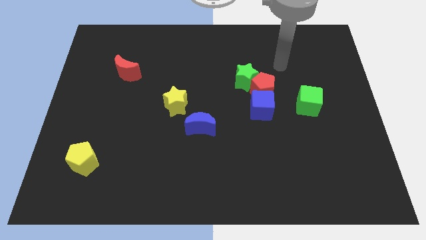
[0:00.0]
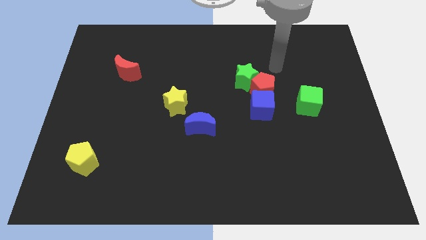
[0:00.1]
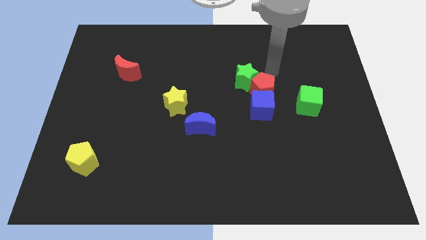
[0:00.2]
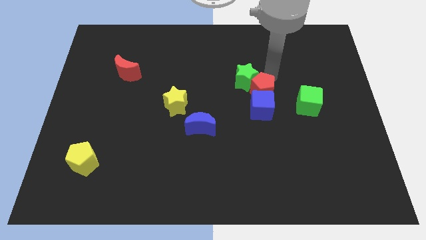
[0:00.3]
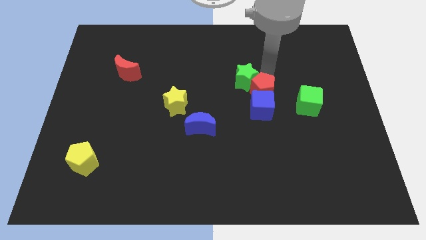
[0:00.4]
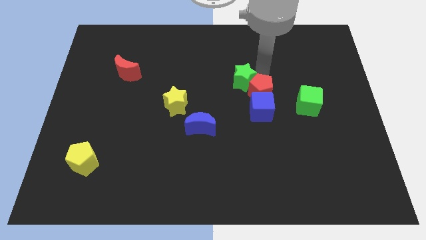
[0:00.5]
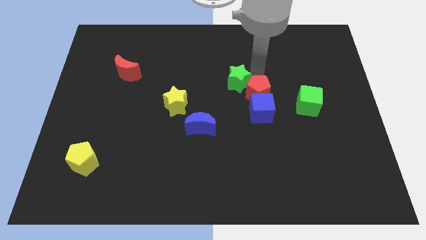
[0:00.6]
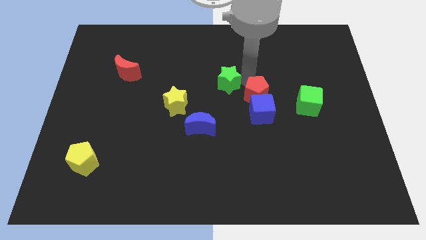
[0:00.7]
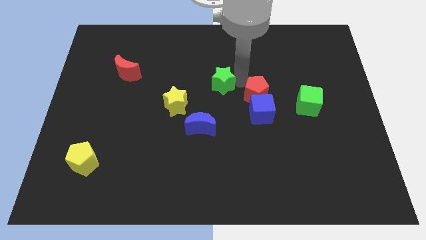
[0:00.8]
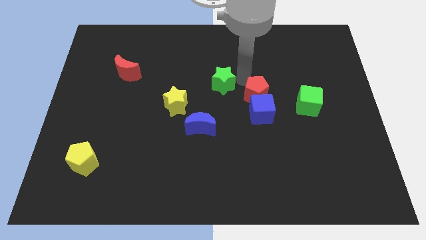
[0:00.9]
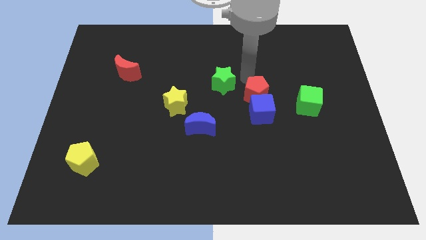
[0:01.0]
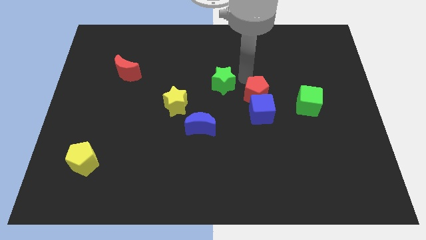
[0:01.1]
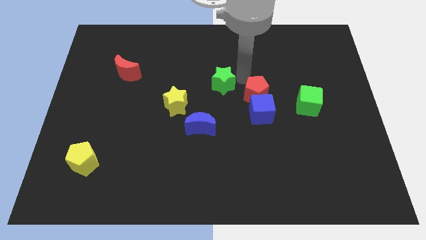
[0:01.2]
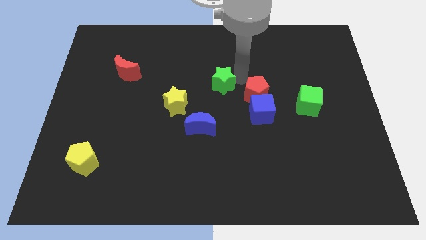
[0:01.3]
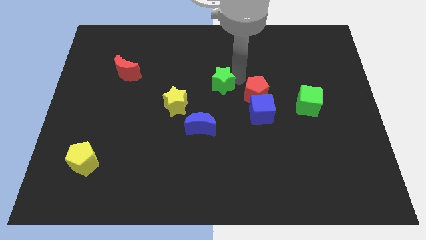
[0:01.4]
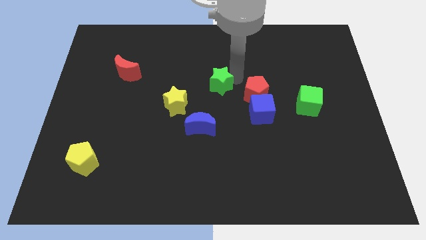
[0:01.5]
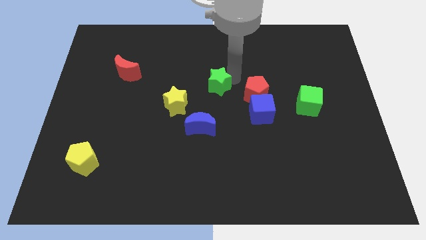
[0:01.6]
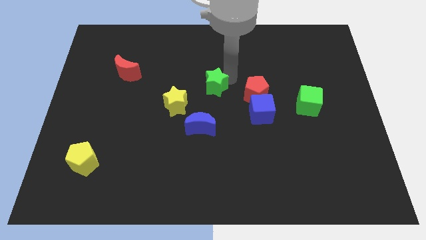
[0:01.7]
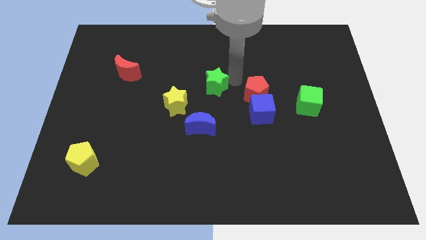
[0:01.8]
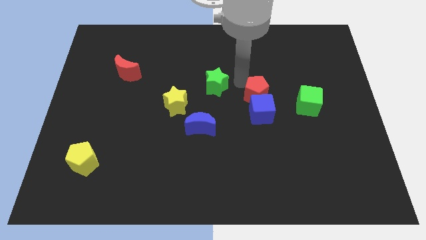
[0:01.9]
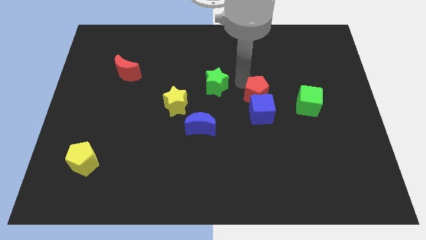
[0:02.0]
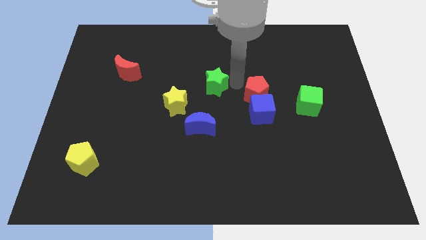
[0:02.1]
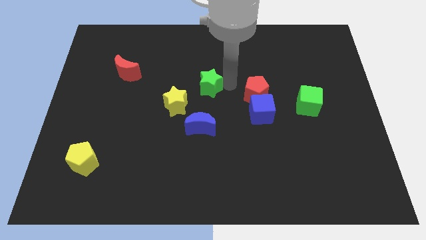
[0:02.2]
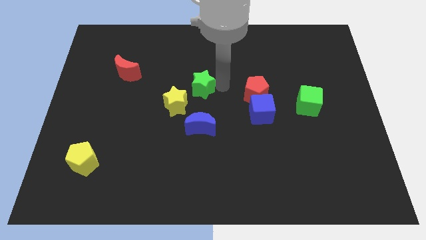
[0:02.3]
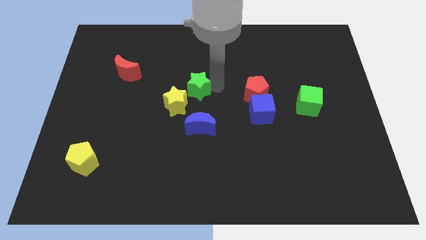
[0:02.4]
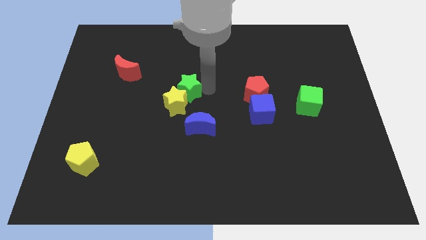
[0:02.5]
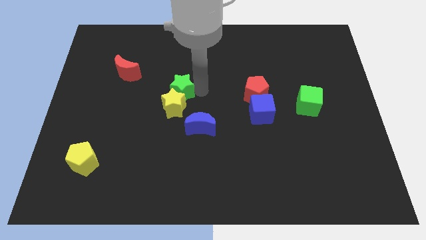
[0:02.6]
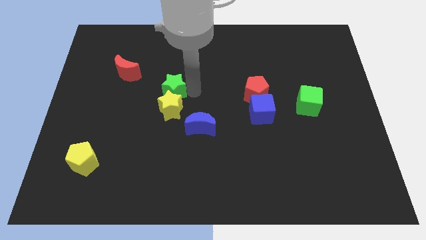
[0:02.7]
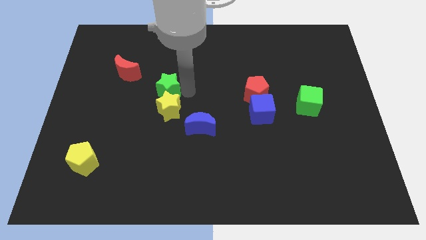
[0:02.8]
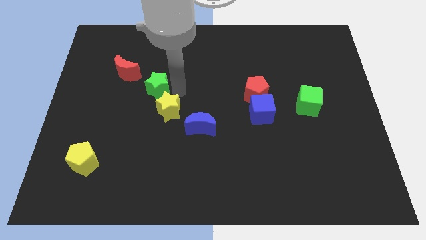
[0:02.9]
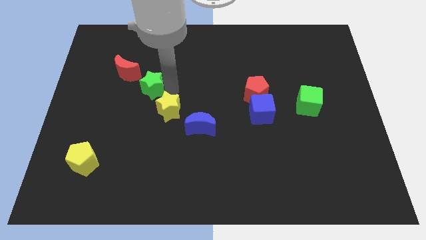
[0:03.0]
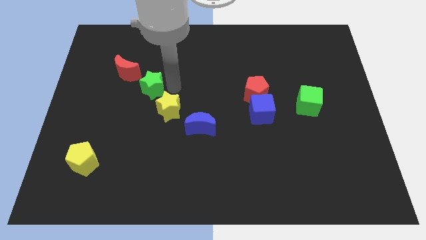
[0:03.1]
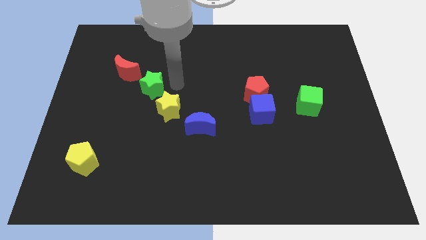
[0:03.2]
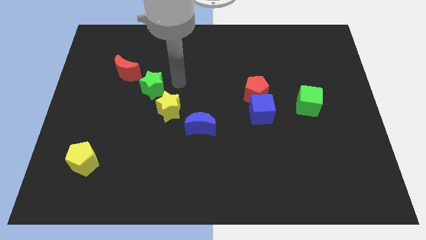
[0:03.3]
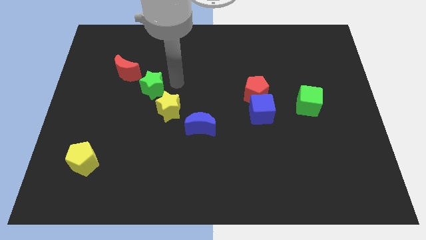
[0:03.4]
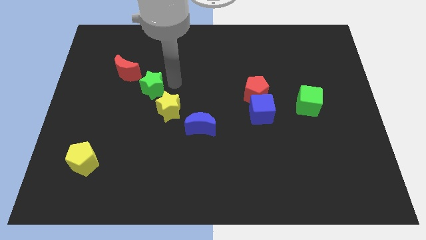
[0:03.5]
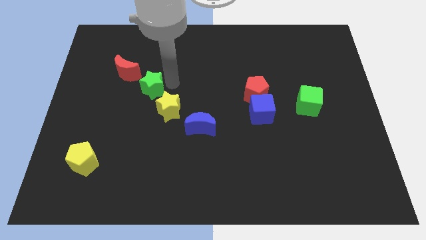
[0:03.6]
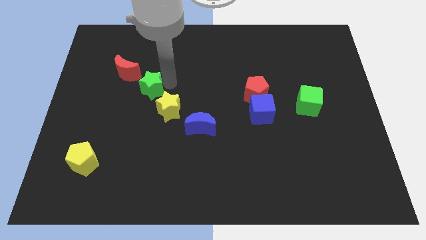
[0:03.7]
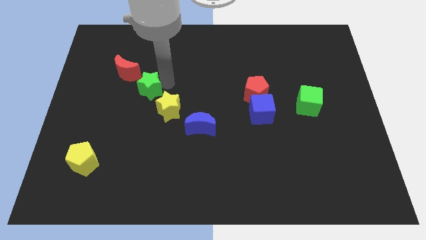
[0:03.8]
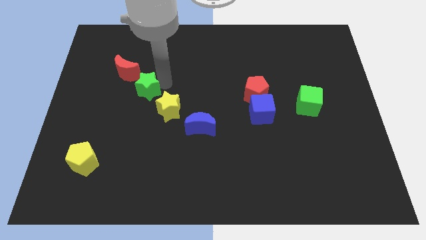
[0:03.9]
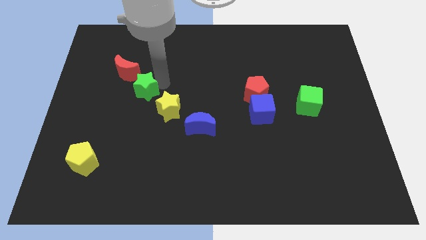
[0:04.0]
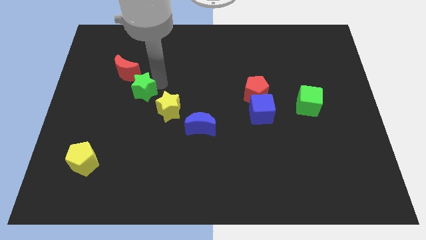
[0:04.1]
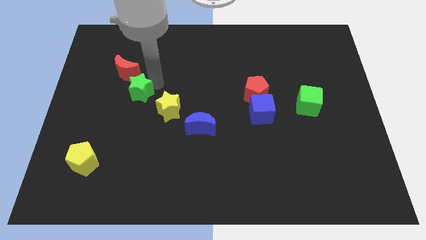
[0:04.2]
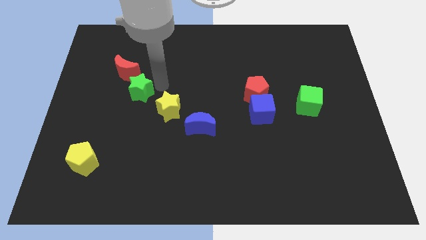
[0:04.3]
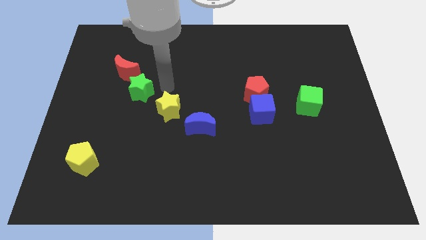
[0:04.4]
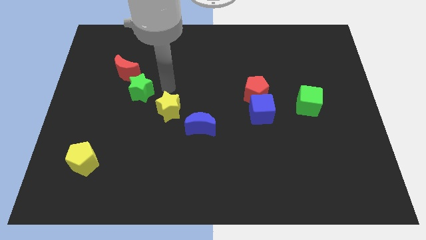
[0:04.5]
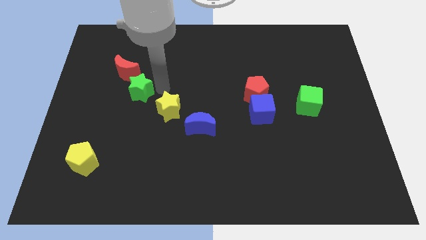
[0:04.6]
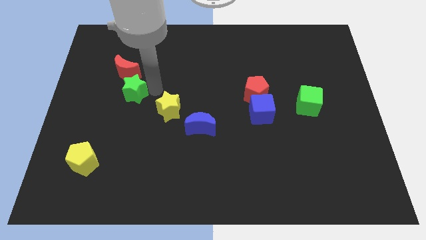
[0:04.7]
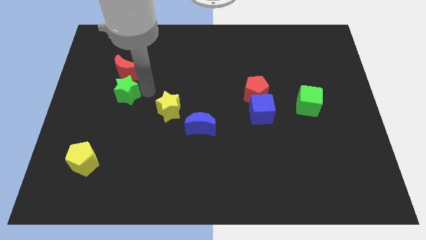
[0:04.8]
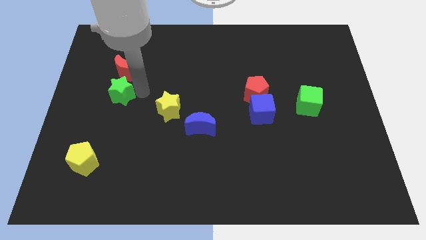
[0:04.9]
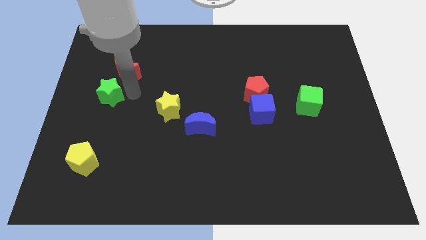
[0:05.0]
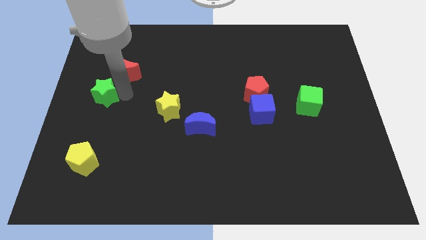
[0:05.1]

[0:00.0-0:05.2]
push the green star to the center left
